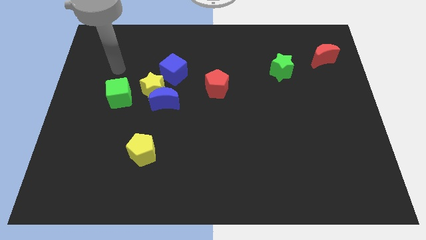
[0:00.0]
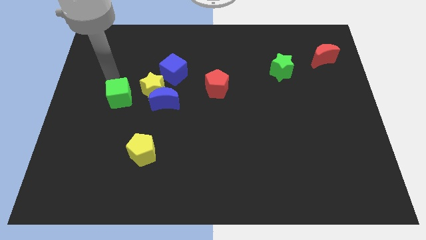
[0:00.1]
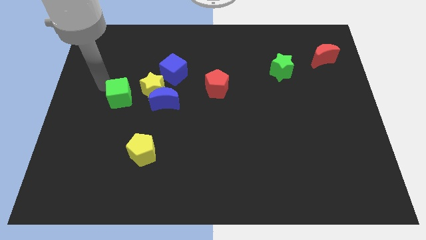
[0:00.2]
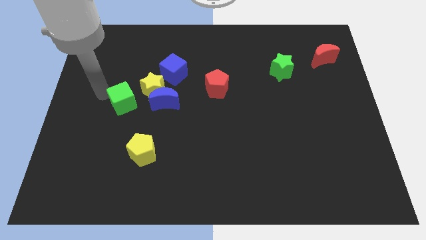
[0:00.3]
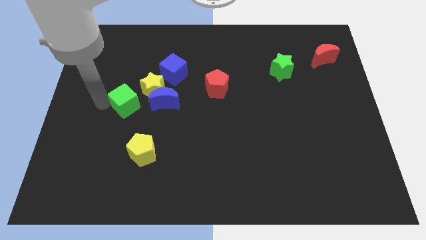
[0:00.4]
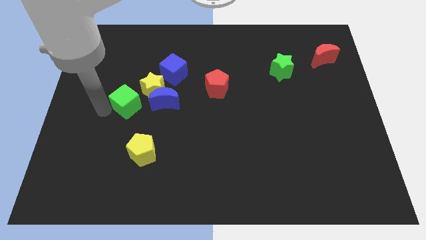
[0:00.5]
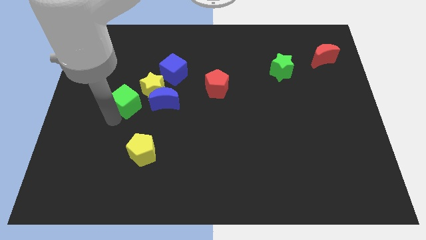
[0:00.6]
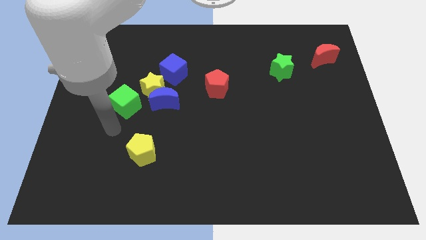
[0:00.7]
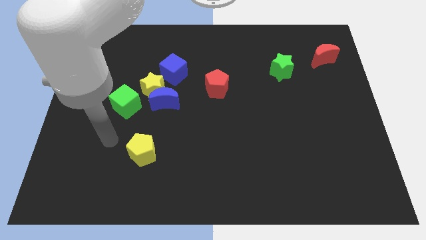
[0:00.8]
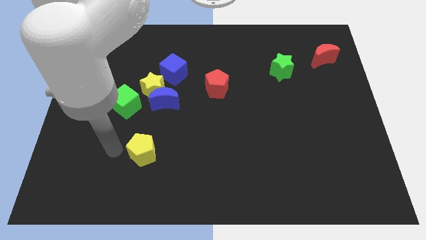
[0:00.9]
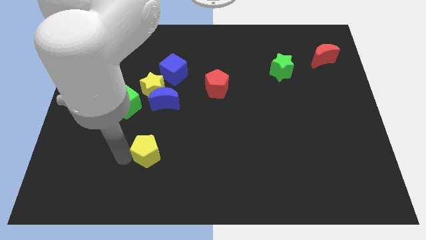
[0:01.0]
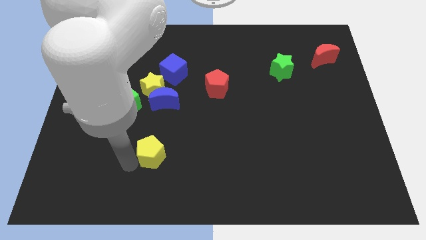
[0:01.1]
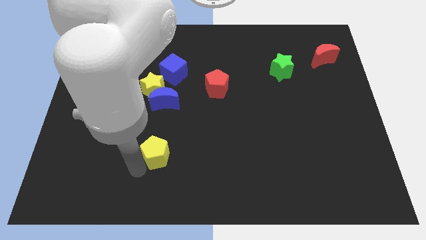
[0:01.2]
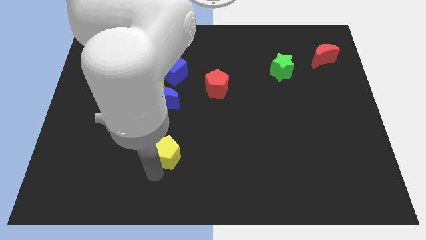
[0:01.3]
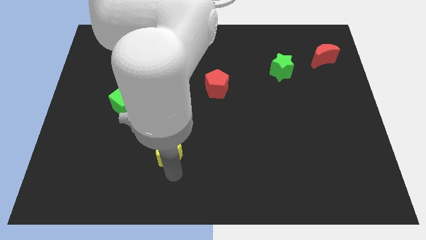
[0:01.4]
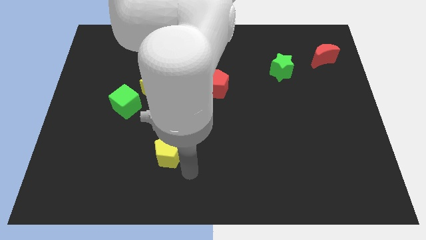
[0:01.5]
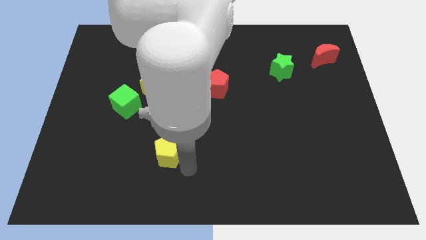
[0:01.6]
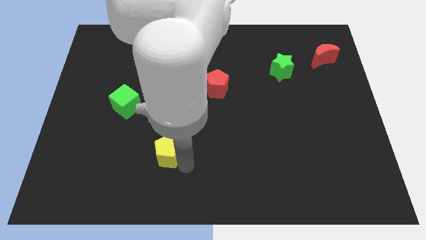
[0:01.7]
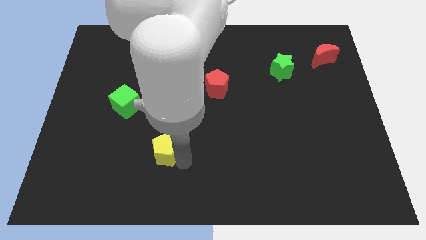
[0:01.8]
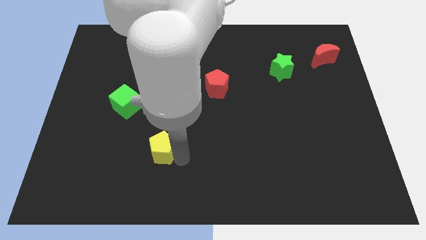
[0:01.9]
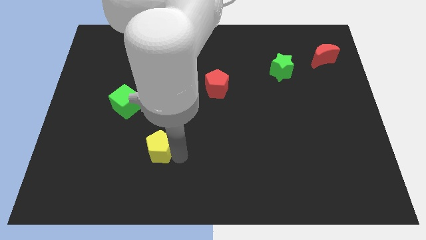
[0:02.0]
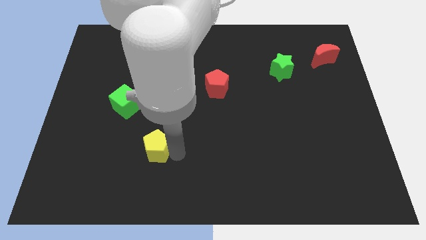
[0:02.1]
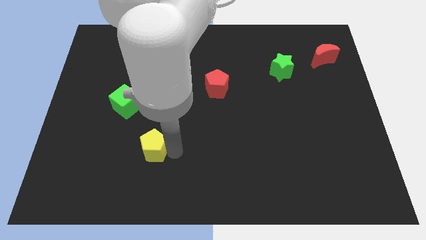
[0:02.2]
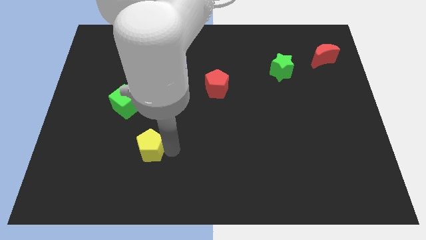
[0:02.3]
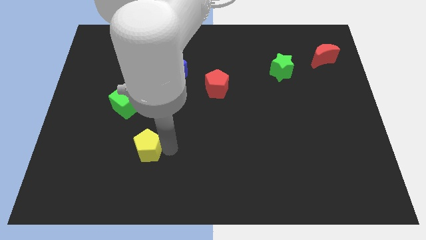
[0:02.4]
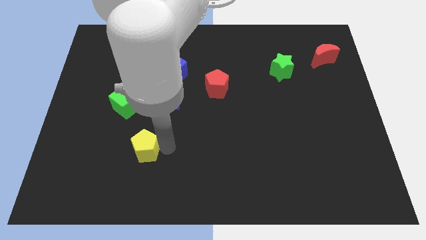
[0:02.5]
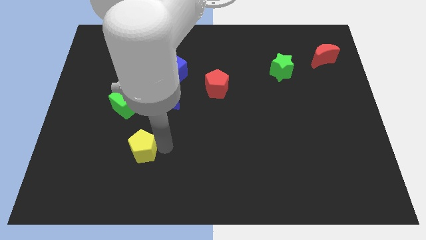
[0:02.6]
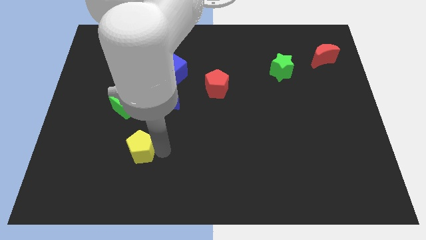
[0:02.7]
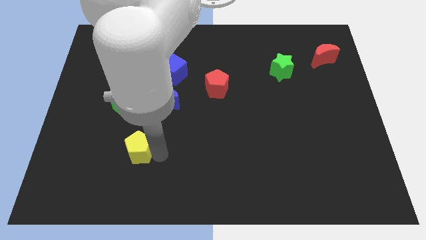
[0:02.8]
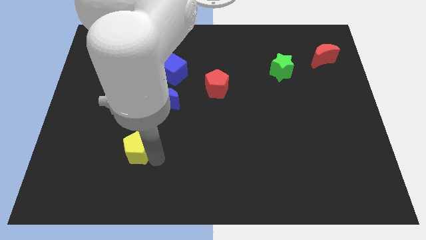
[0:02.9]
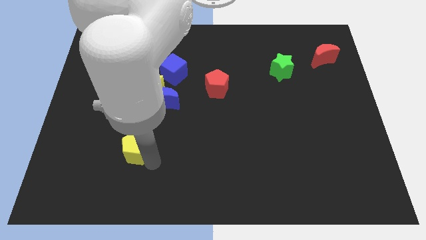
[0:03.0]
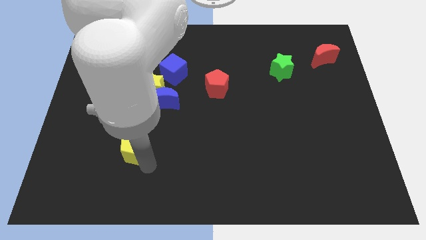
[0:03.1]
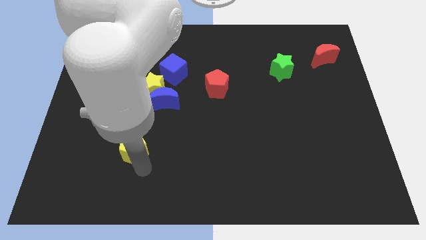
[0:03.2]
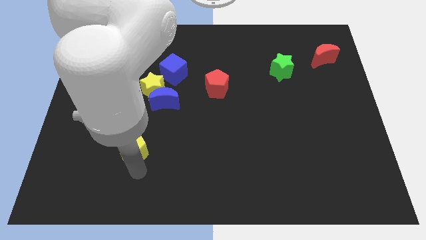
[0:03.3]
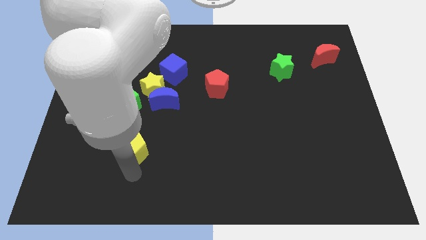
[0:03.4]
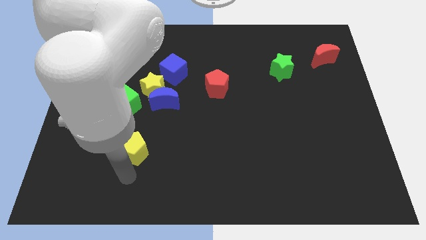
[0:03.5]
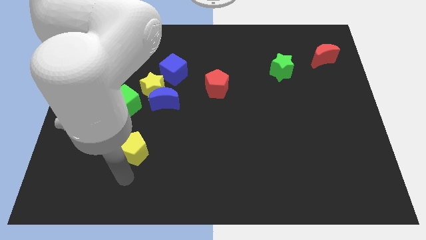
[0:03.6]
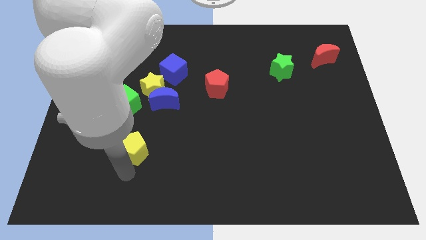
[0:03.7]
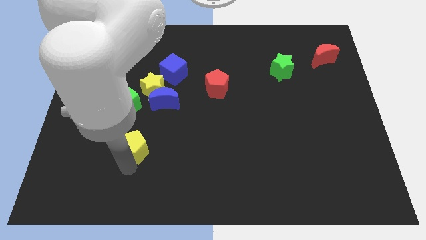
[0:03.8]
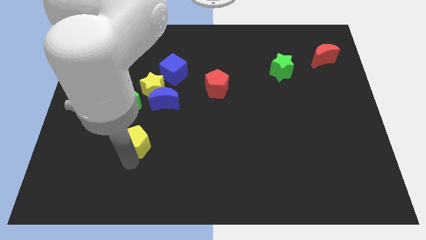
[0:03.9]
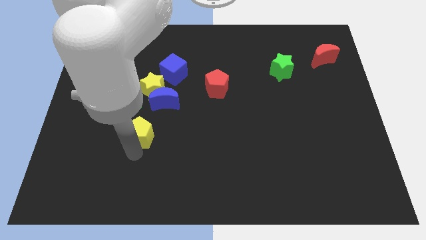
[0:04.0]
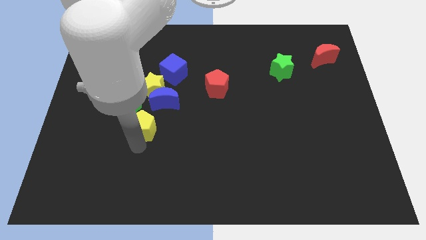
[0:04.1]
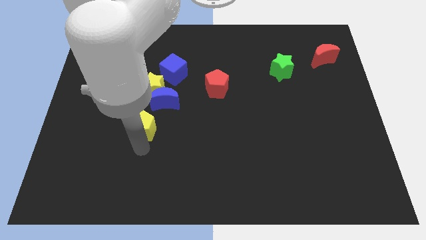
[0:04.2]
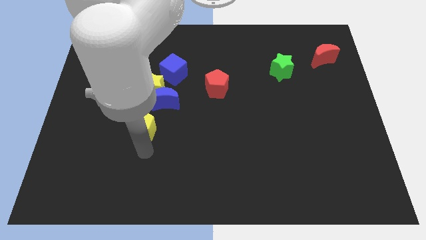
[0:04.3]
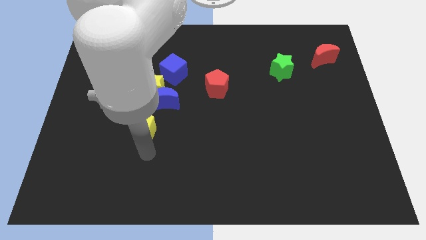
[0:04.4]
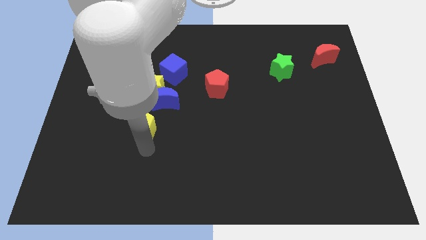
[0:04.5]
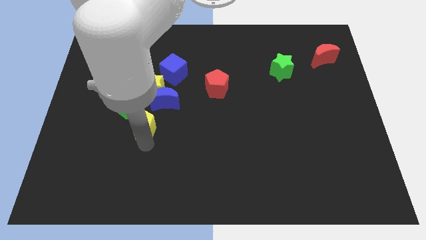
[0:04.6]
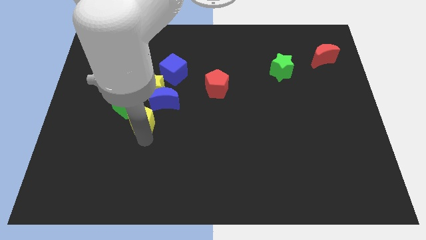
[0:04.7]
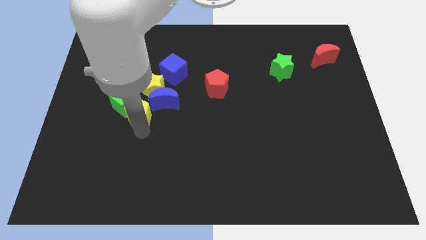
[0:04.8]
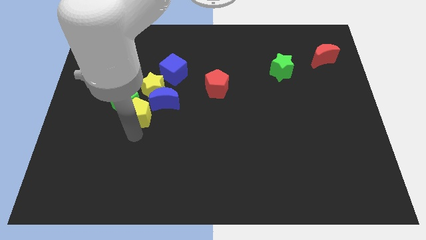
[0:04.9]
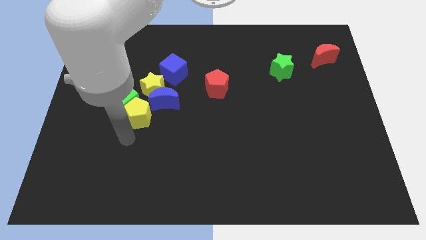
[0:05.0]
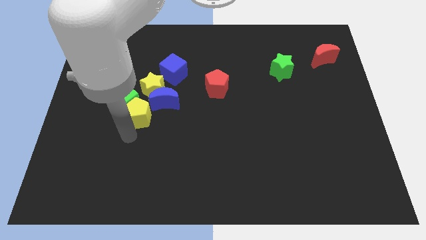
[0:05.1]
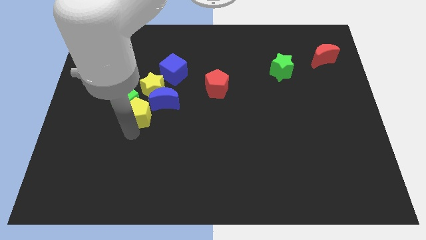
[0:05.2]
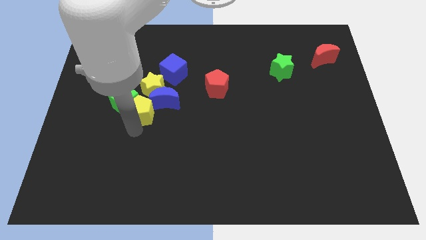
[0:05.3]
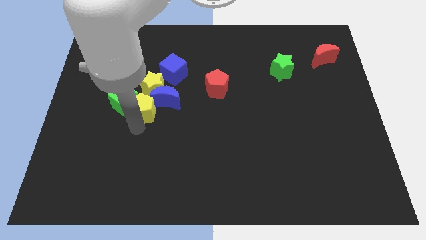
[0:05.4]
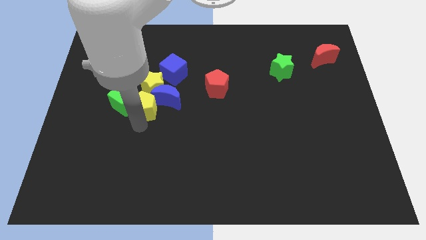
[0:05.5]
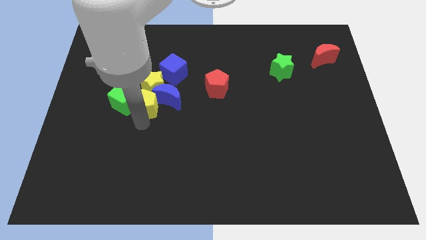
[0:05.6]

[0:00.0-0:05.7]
slide the yellow pentagon to the yellow star

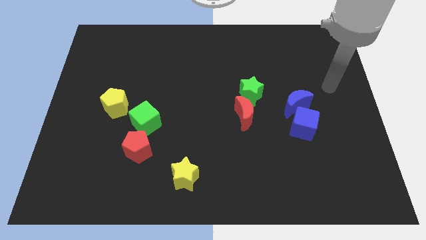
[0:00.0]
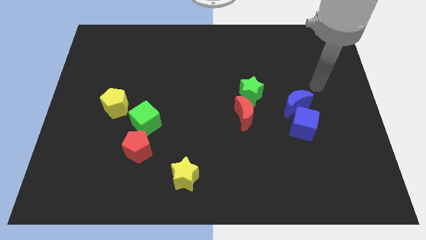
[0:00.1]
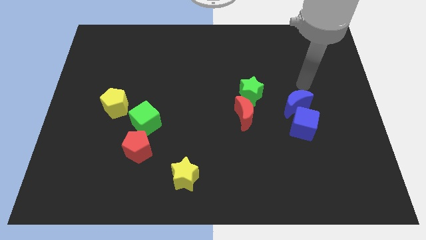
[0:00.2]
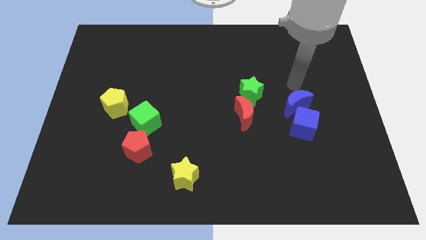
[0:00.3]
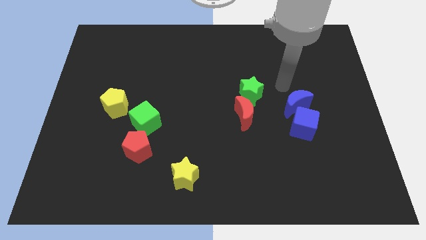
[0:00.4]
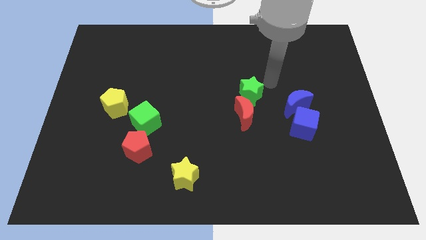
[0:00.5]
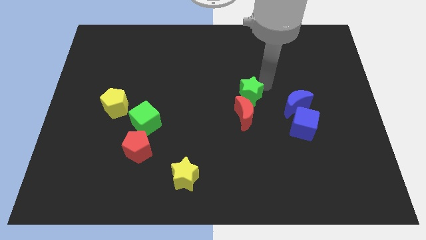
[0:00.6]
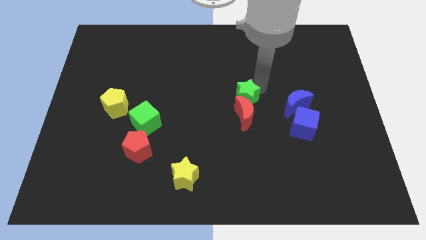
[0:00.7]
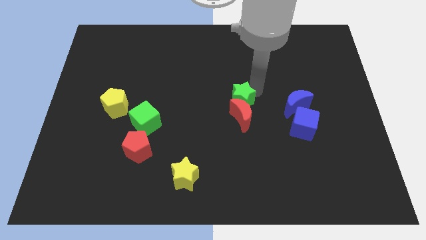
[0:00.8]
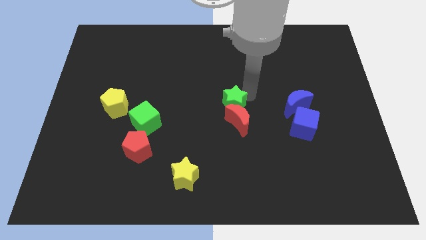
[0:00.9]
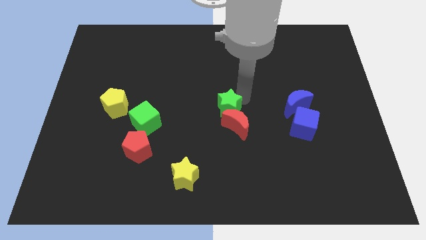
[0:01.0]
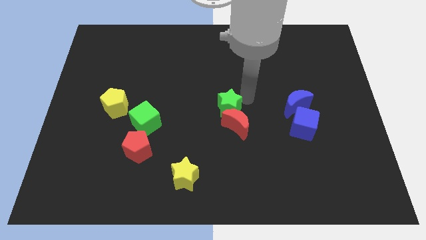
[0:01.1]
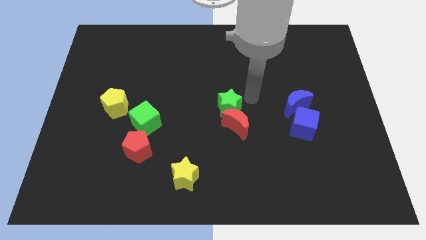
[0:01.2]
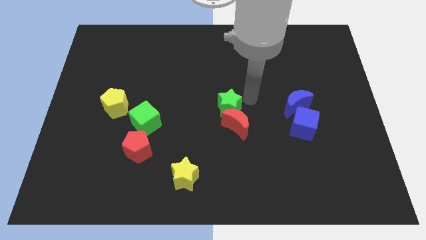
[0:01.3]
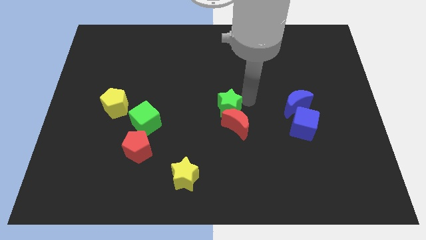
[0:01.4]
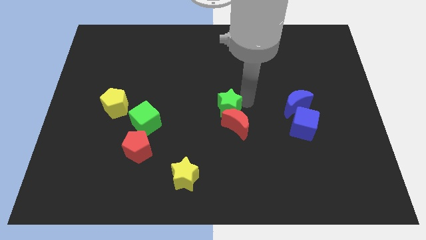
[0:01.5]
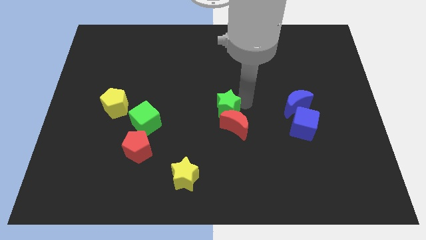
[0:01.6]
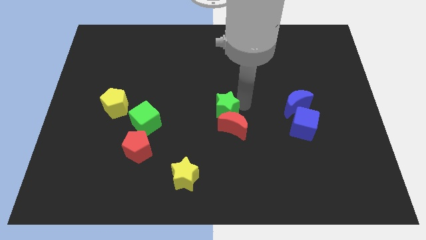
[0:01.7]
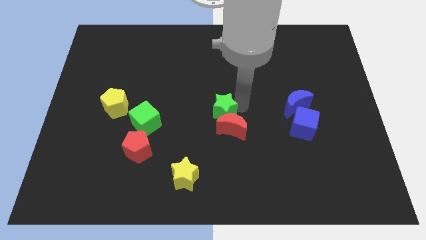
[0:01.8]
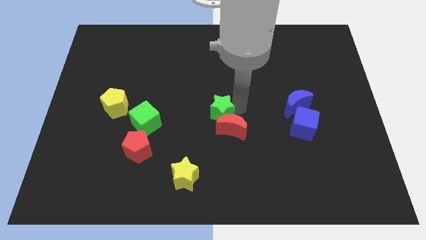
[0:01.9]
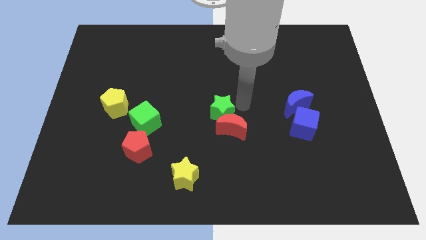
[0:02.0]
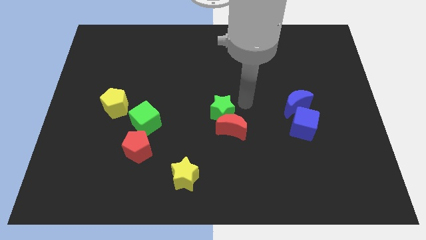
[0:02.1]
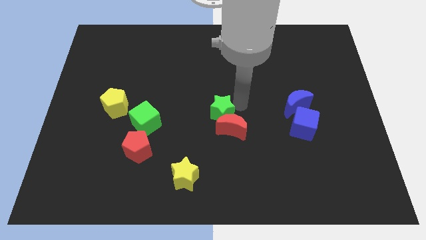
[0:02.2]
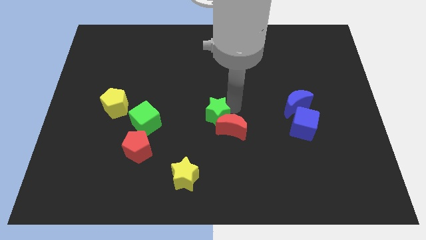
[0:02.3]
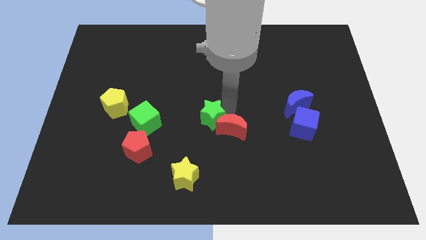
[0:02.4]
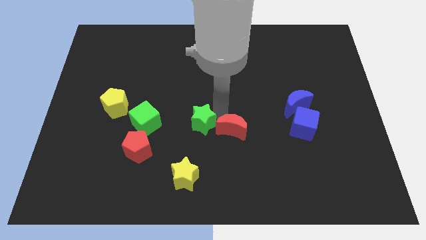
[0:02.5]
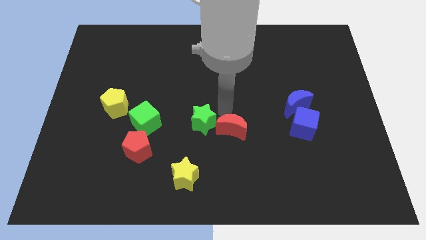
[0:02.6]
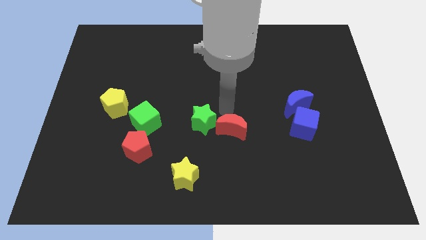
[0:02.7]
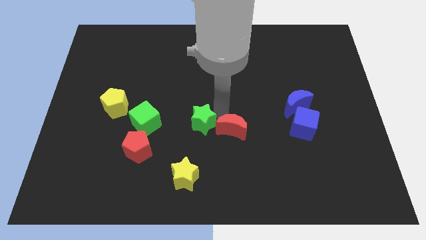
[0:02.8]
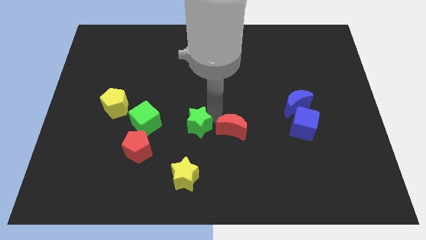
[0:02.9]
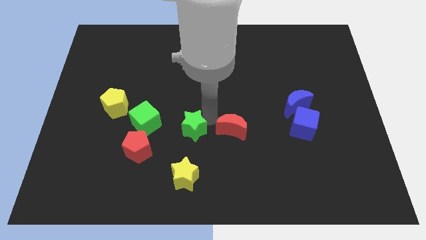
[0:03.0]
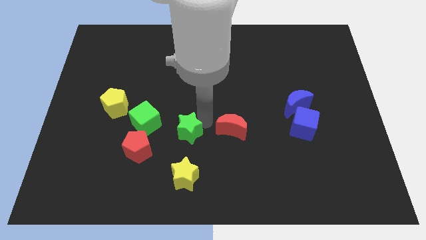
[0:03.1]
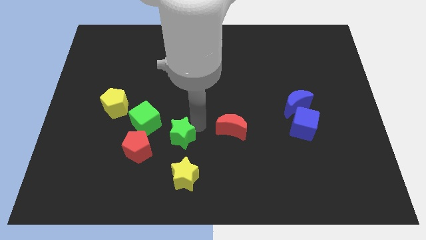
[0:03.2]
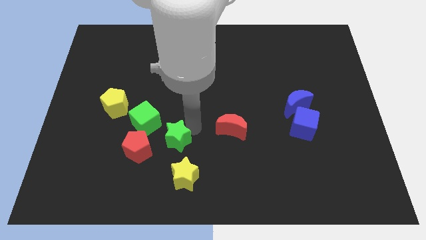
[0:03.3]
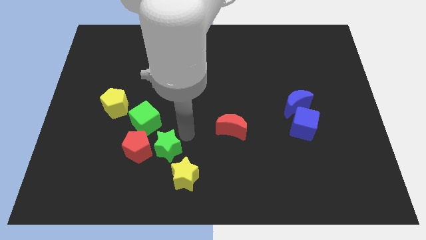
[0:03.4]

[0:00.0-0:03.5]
slide the green star close to the red pentagon
